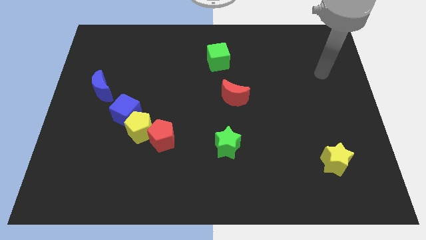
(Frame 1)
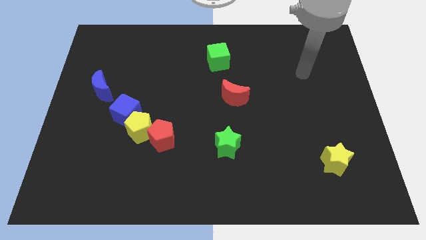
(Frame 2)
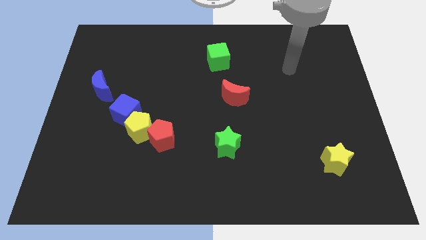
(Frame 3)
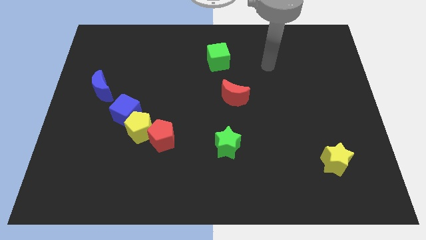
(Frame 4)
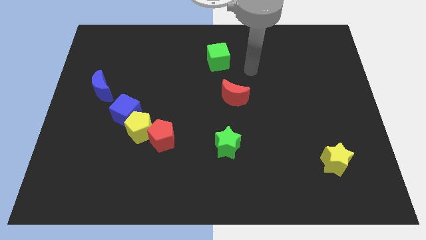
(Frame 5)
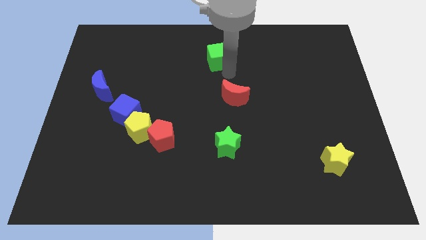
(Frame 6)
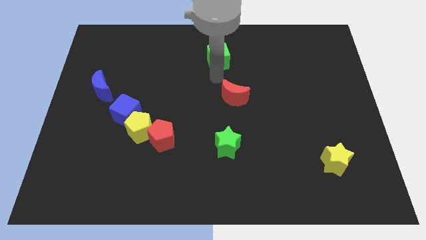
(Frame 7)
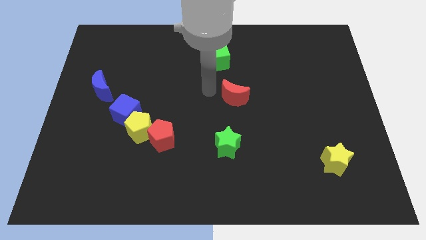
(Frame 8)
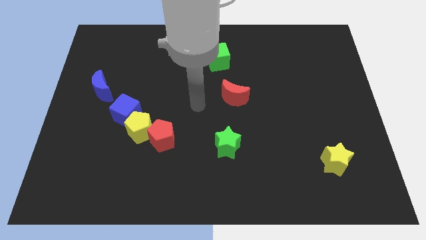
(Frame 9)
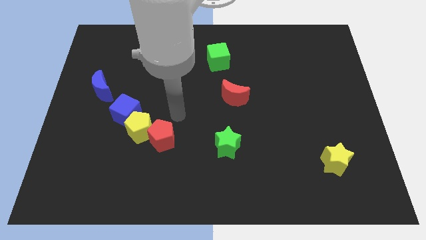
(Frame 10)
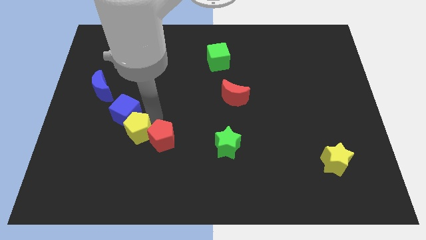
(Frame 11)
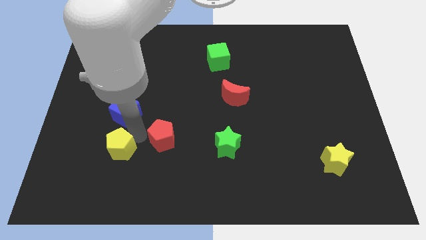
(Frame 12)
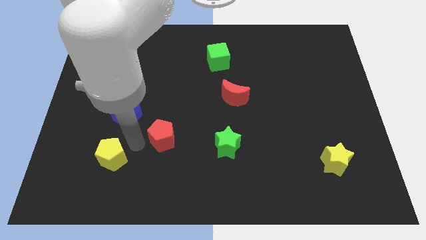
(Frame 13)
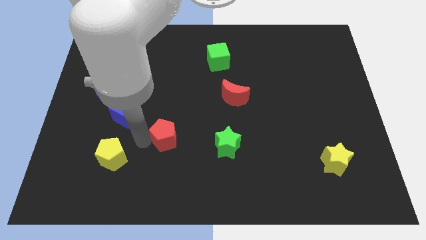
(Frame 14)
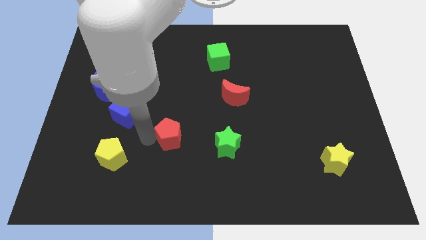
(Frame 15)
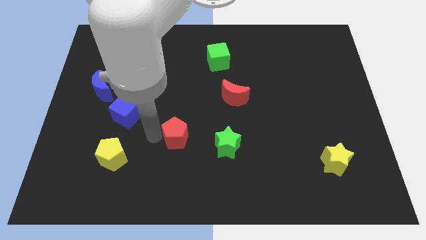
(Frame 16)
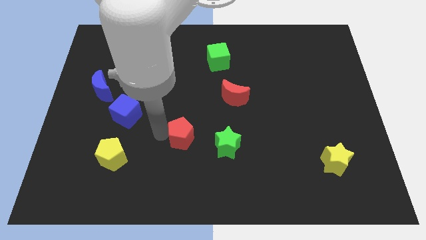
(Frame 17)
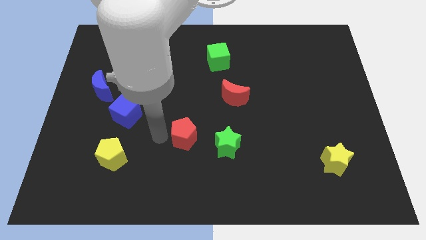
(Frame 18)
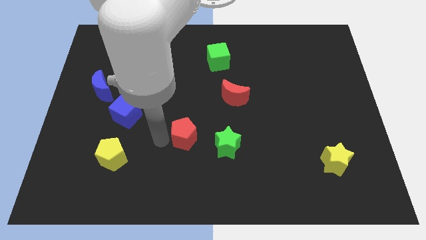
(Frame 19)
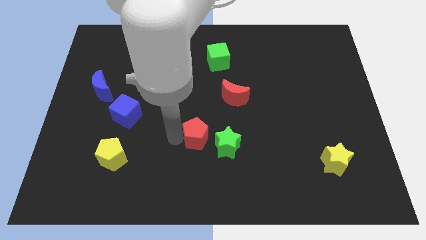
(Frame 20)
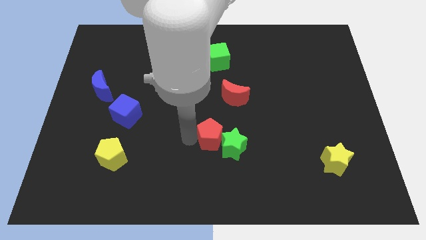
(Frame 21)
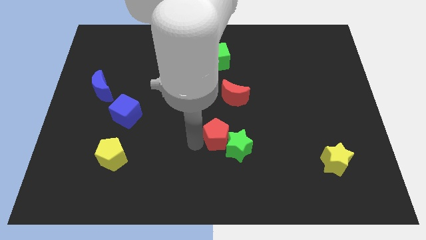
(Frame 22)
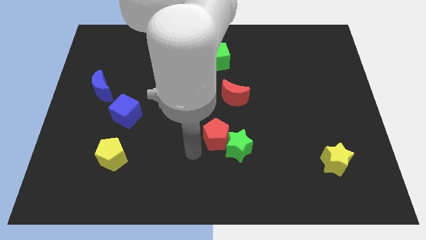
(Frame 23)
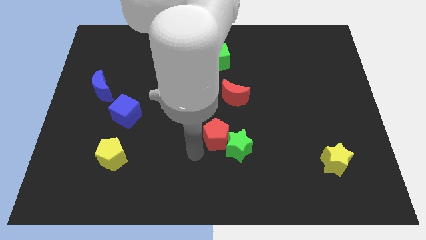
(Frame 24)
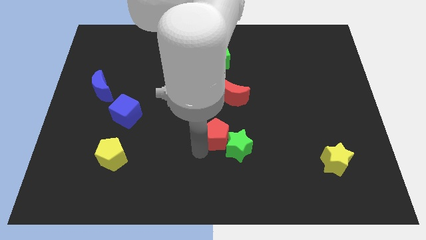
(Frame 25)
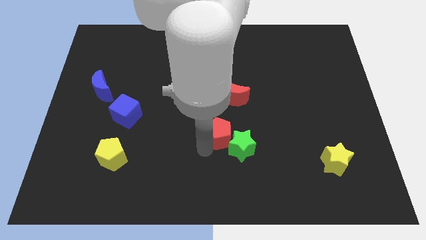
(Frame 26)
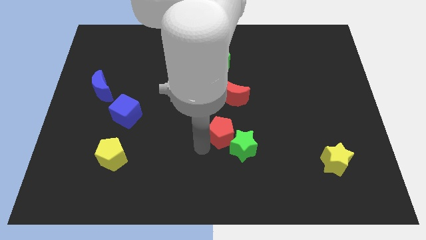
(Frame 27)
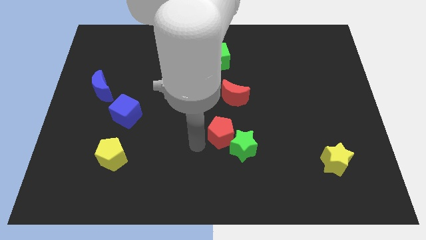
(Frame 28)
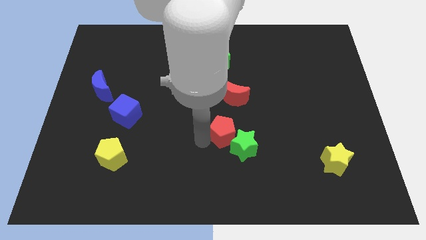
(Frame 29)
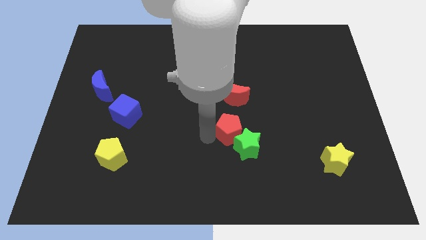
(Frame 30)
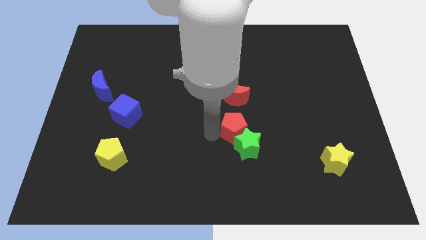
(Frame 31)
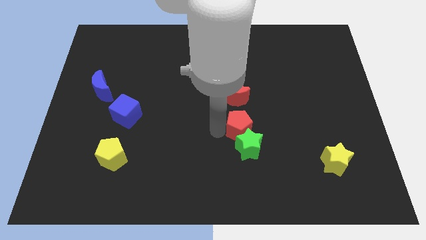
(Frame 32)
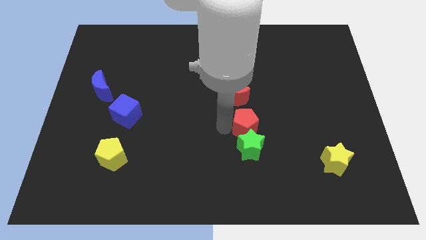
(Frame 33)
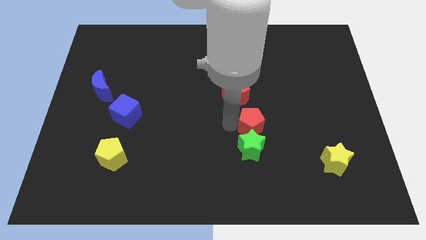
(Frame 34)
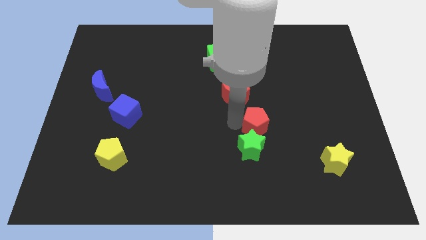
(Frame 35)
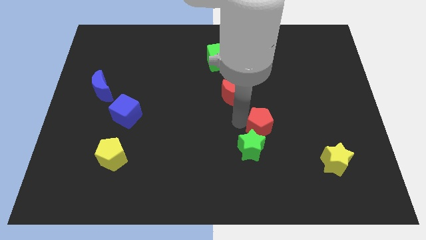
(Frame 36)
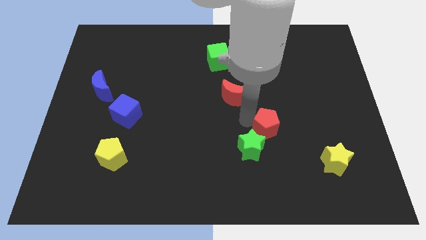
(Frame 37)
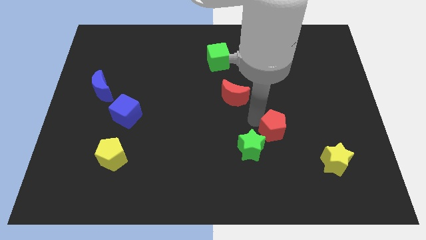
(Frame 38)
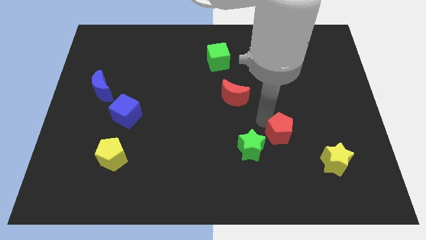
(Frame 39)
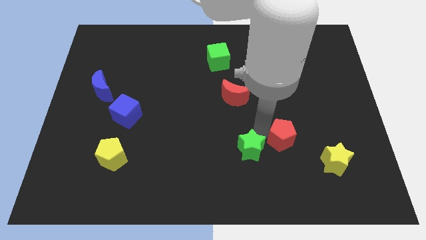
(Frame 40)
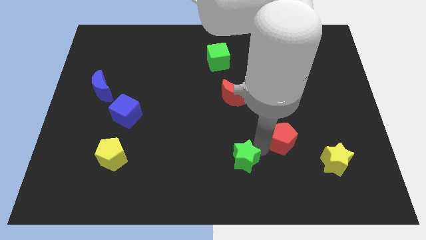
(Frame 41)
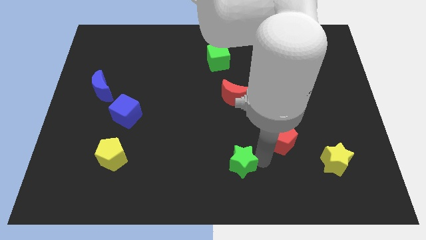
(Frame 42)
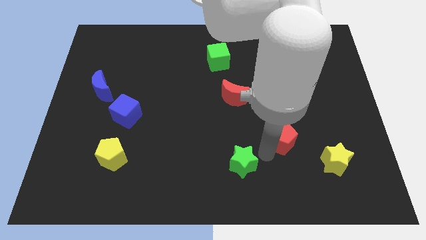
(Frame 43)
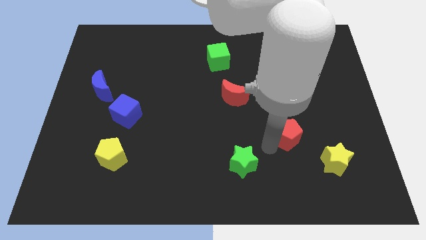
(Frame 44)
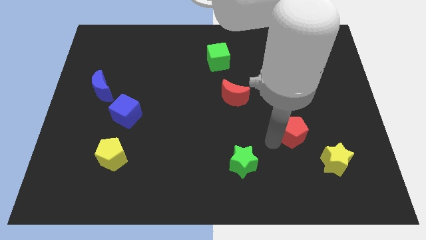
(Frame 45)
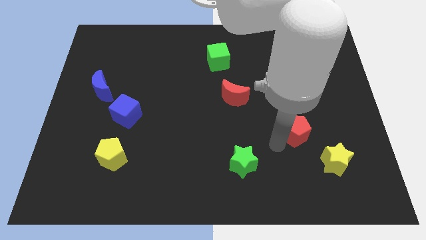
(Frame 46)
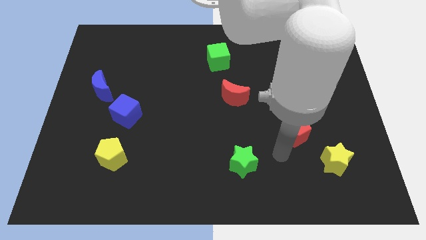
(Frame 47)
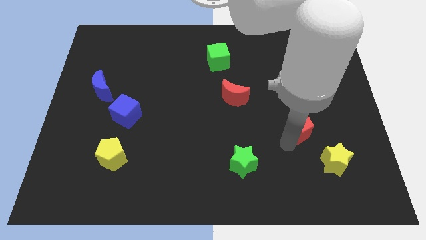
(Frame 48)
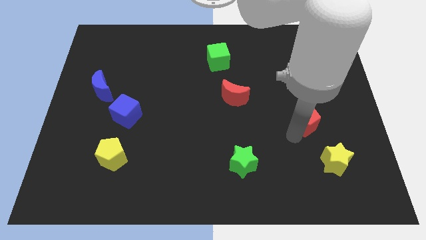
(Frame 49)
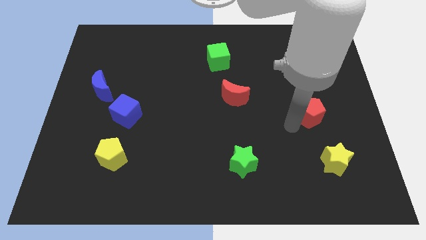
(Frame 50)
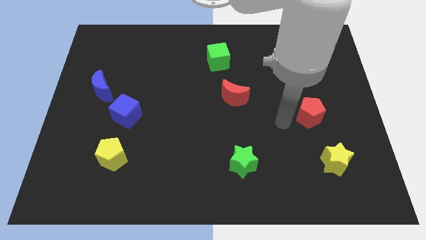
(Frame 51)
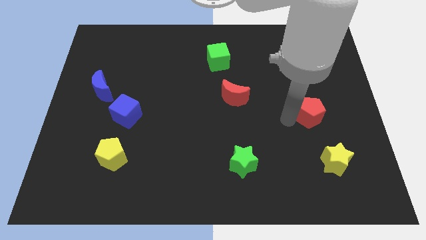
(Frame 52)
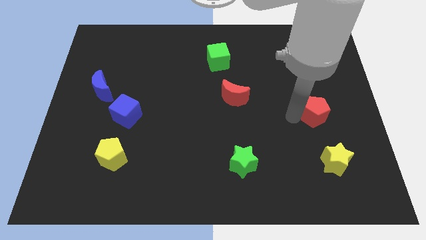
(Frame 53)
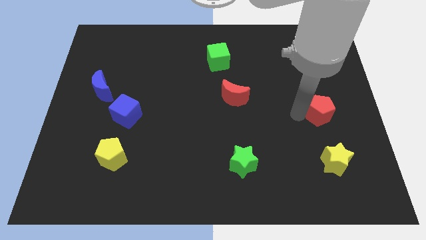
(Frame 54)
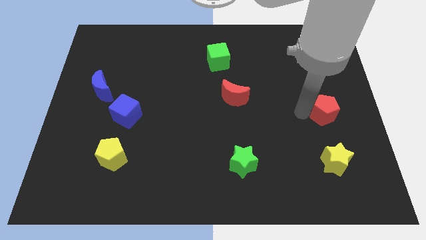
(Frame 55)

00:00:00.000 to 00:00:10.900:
move the red pentagon to the right side
